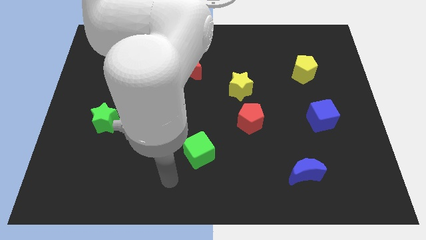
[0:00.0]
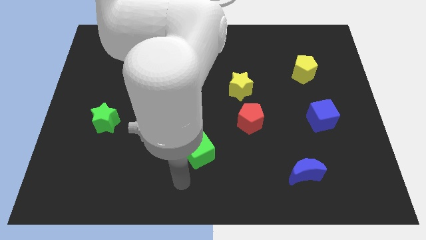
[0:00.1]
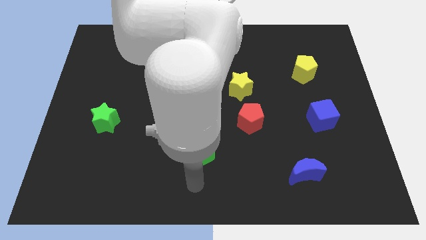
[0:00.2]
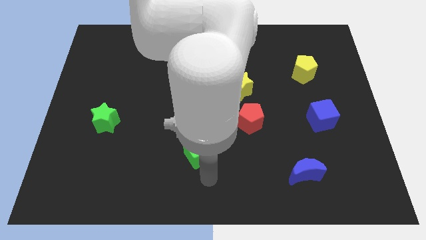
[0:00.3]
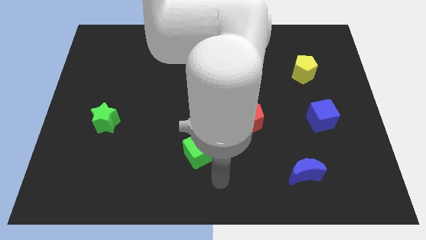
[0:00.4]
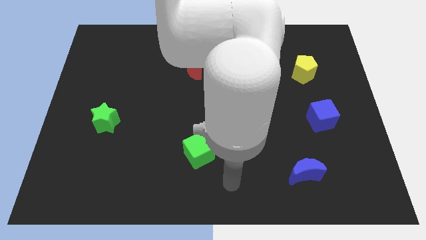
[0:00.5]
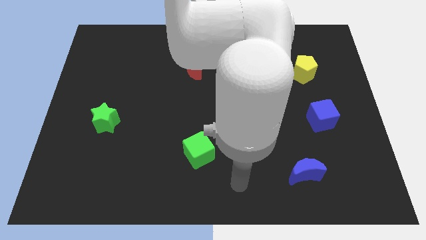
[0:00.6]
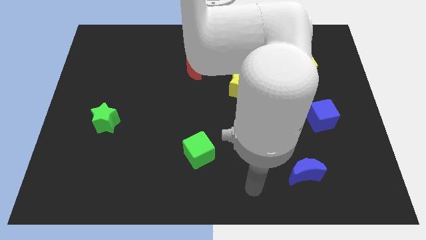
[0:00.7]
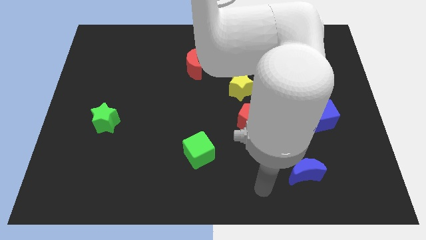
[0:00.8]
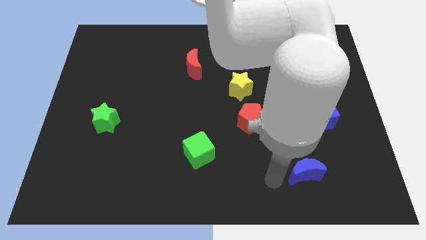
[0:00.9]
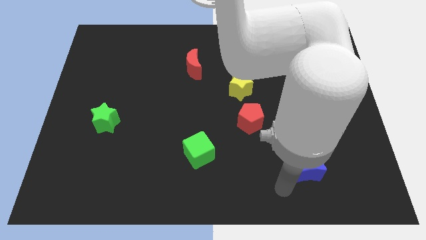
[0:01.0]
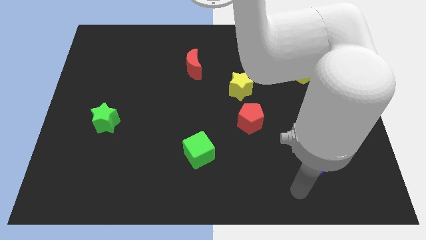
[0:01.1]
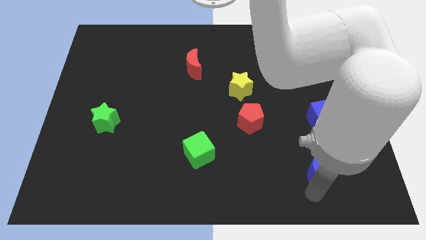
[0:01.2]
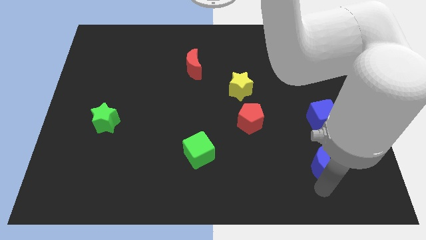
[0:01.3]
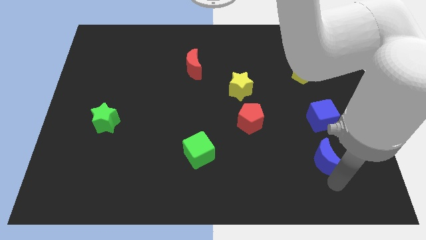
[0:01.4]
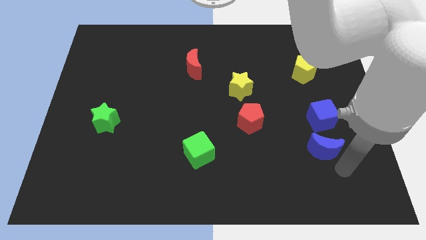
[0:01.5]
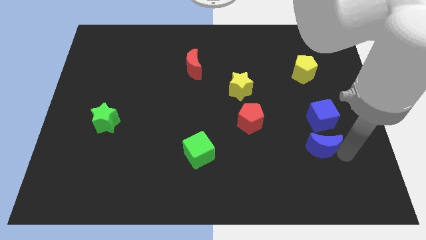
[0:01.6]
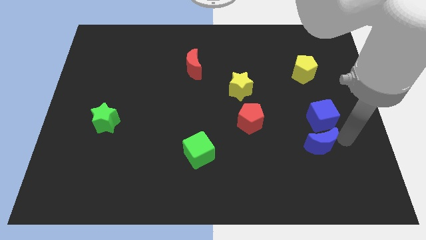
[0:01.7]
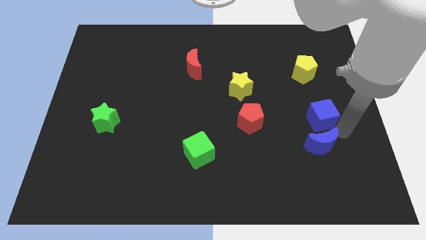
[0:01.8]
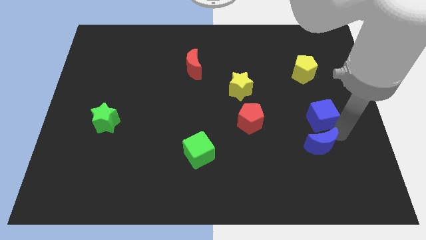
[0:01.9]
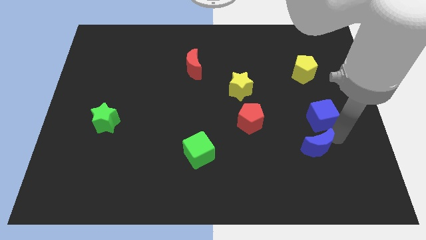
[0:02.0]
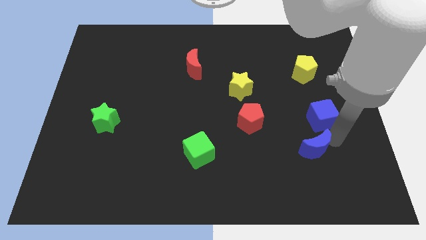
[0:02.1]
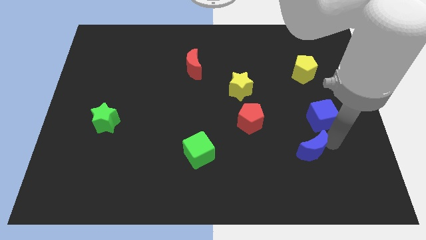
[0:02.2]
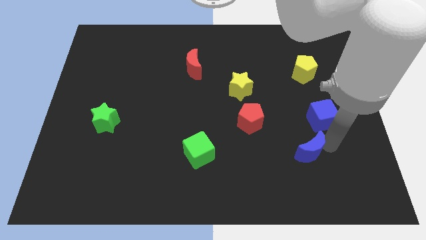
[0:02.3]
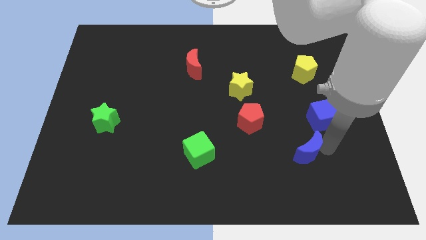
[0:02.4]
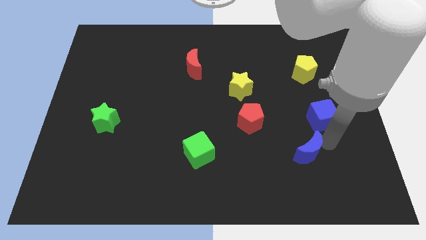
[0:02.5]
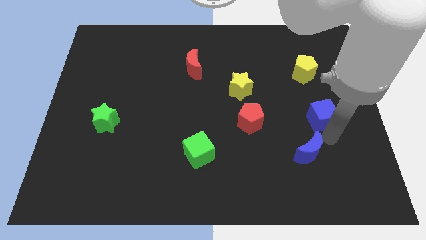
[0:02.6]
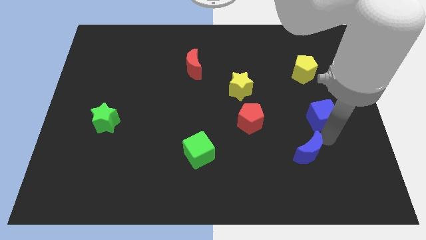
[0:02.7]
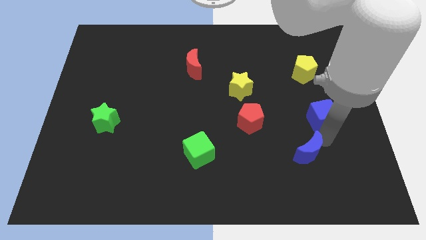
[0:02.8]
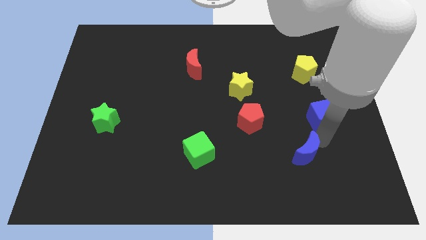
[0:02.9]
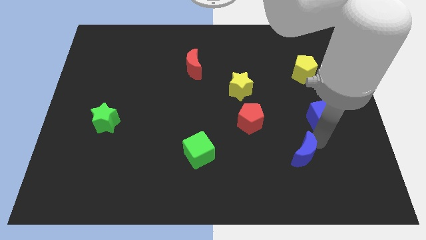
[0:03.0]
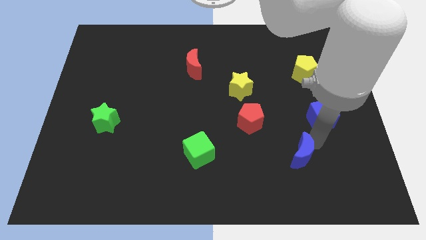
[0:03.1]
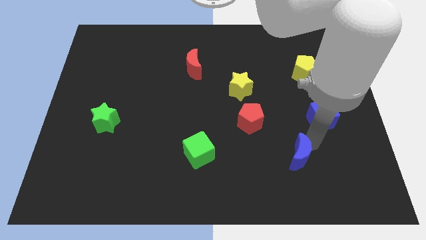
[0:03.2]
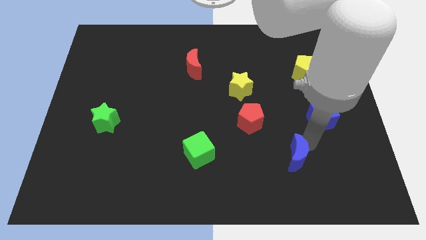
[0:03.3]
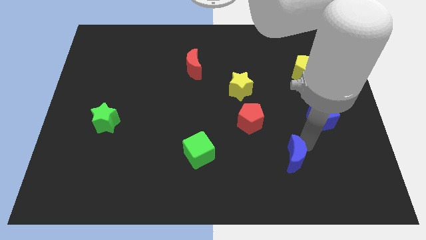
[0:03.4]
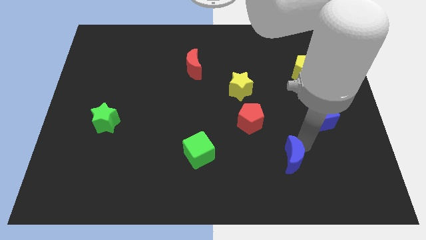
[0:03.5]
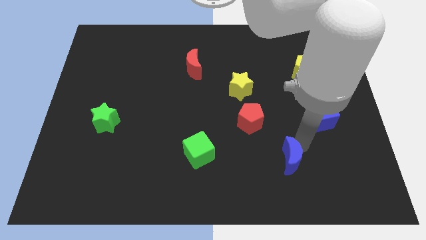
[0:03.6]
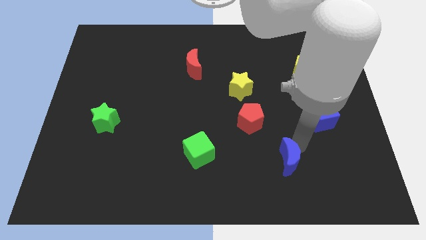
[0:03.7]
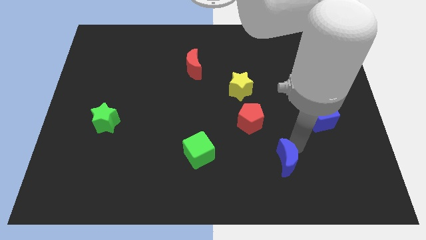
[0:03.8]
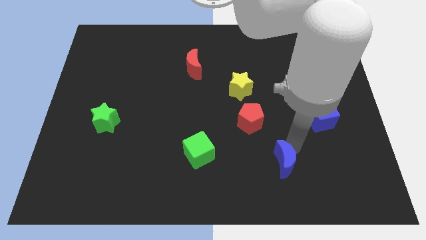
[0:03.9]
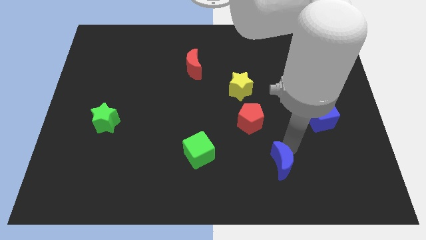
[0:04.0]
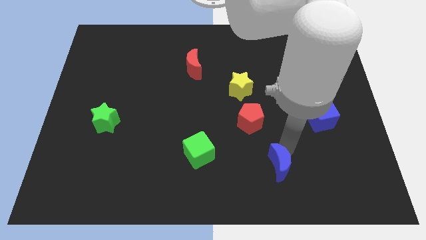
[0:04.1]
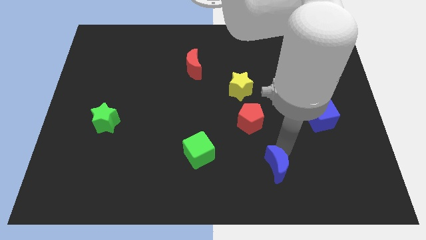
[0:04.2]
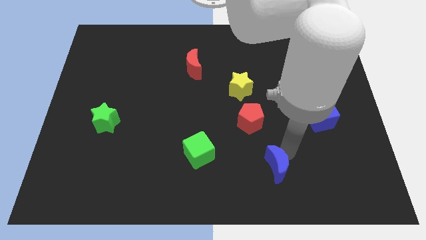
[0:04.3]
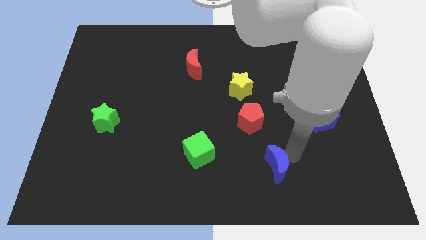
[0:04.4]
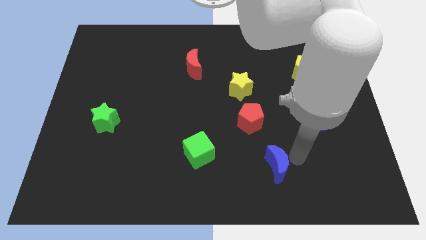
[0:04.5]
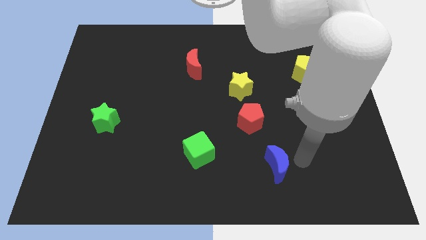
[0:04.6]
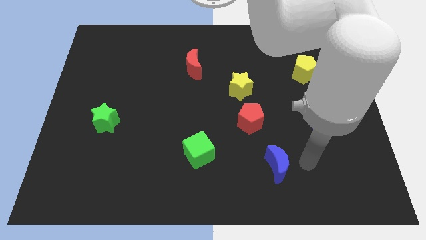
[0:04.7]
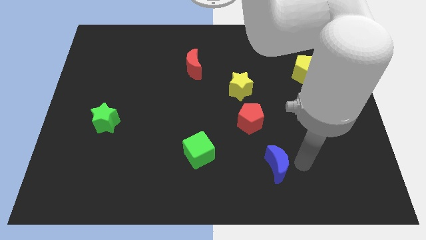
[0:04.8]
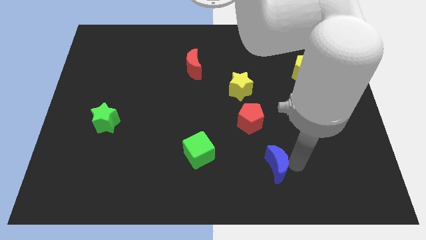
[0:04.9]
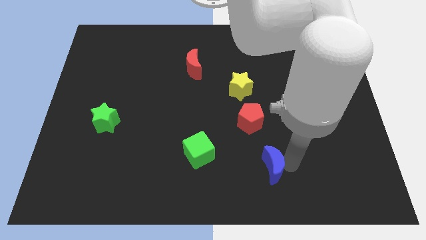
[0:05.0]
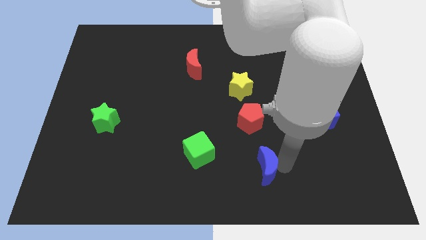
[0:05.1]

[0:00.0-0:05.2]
slightly move the blue moon to the left

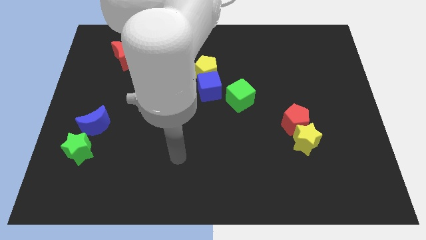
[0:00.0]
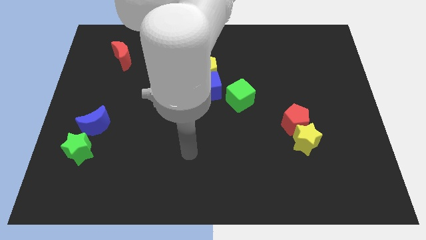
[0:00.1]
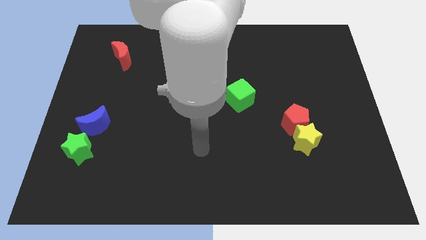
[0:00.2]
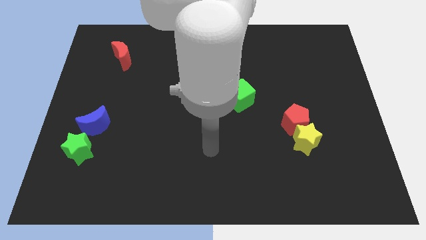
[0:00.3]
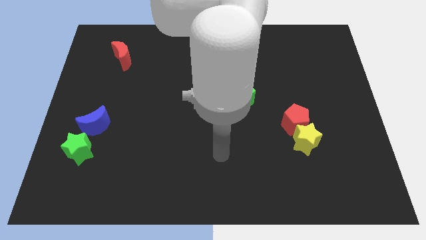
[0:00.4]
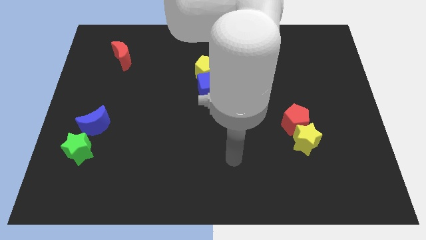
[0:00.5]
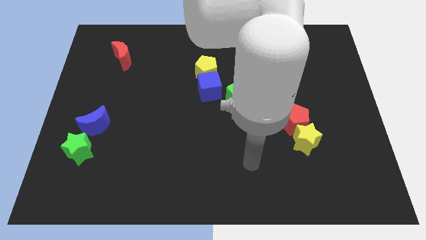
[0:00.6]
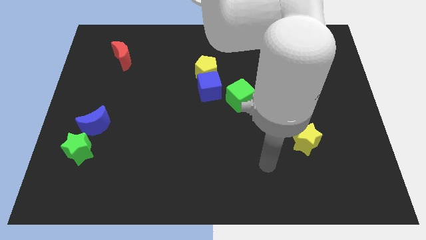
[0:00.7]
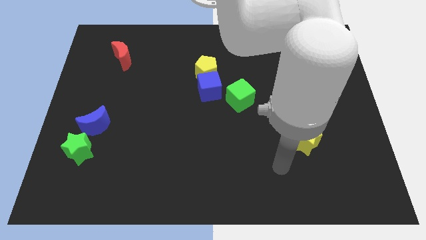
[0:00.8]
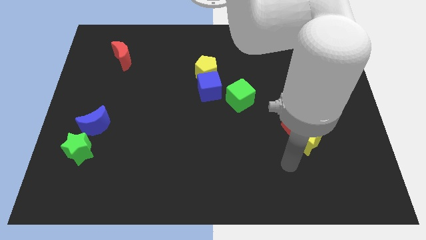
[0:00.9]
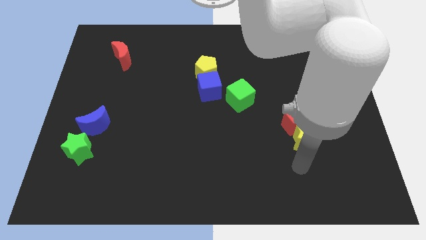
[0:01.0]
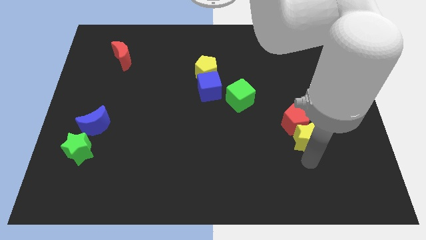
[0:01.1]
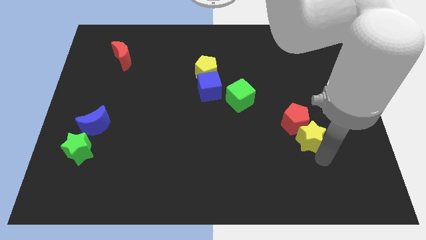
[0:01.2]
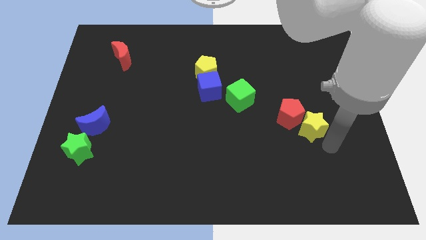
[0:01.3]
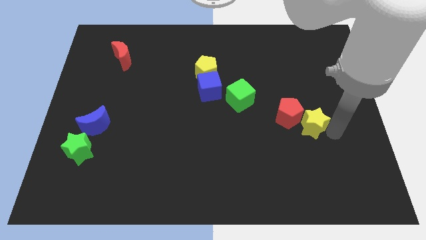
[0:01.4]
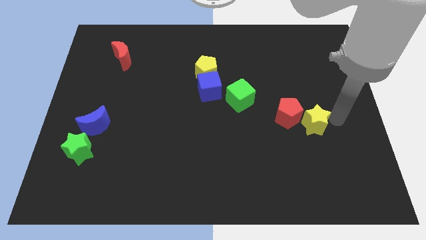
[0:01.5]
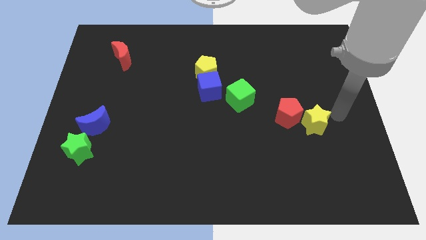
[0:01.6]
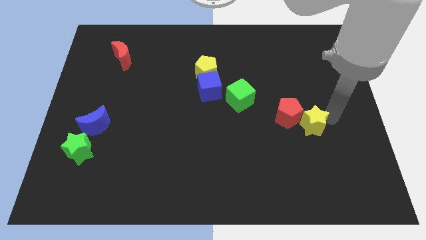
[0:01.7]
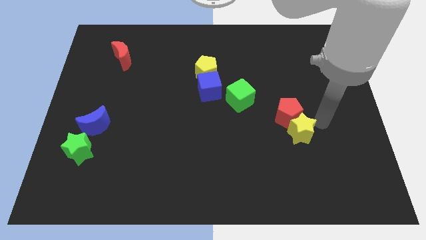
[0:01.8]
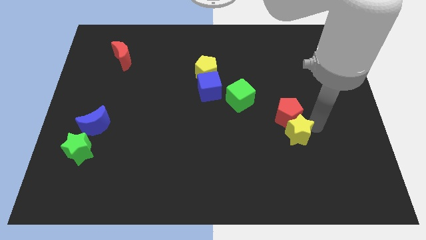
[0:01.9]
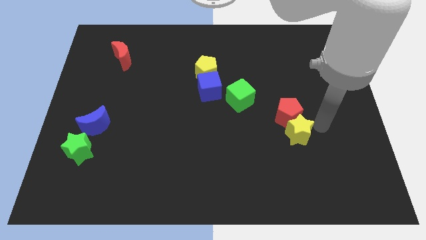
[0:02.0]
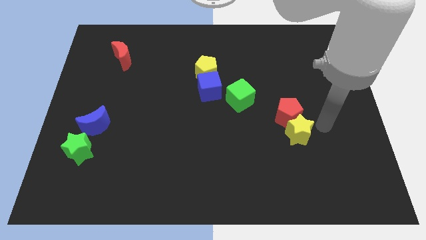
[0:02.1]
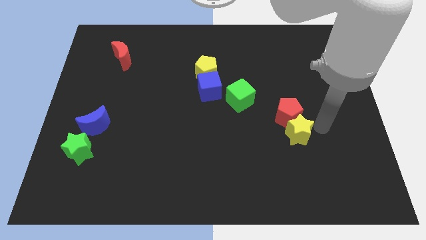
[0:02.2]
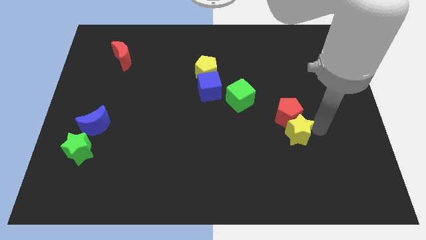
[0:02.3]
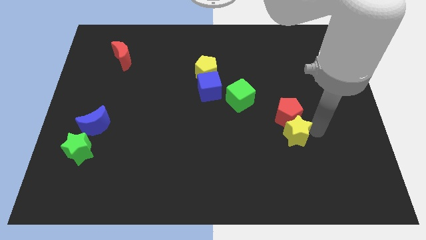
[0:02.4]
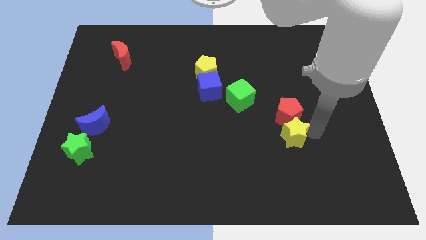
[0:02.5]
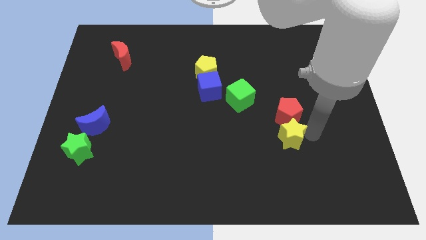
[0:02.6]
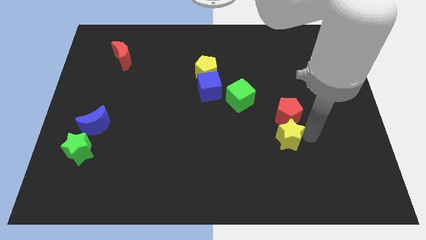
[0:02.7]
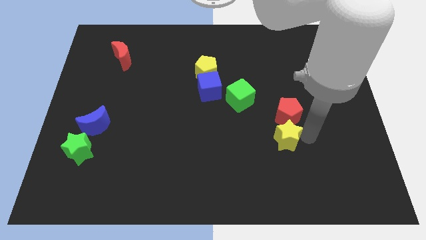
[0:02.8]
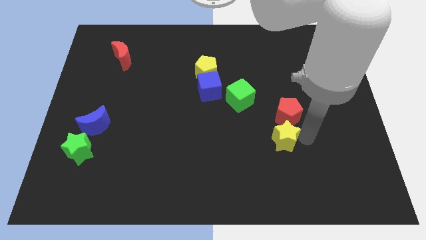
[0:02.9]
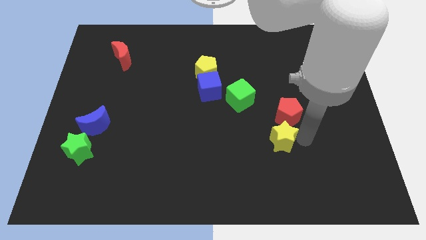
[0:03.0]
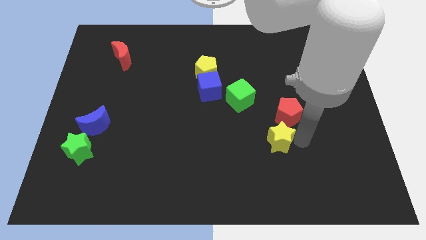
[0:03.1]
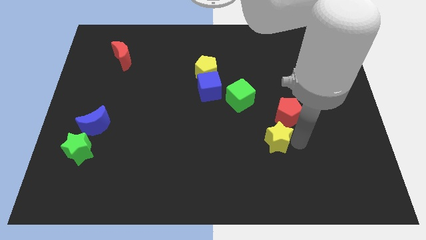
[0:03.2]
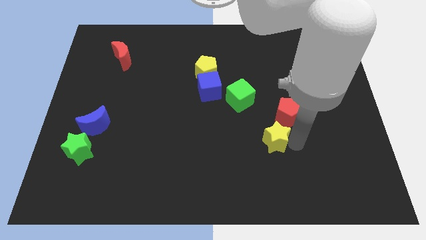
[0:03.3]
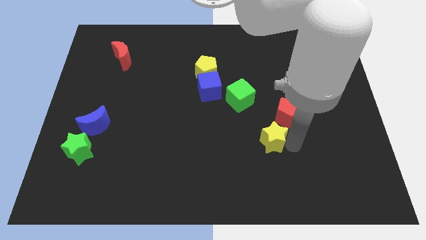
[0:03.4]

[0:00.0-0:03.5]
move the yellow star somewhat left
